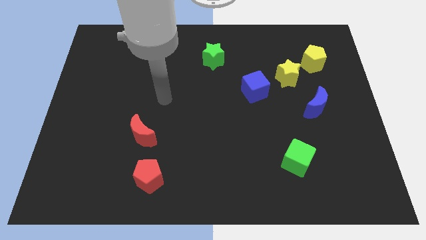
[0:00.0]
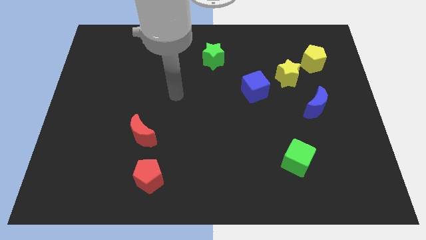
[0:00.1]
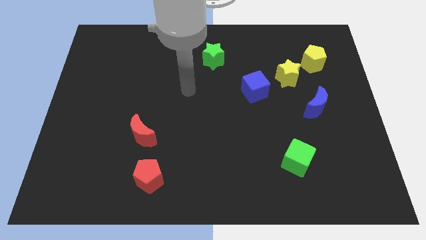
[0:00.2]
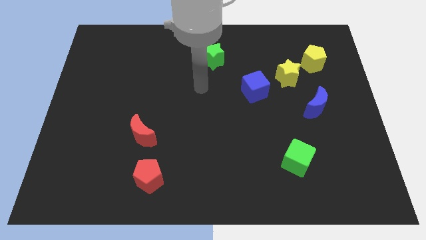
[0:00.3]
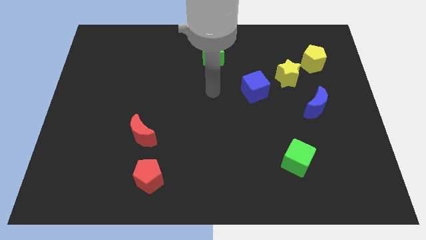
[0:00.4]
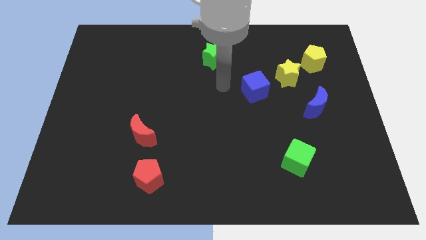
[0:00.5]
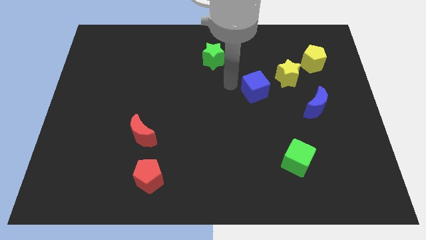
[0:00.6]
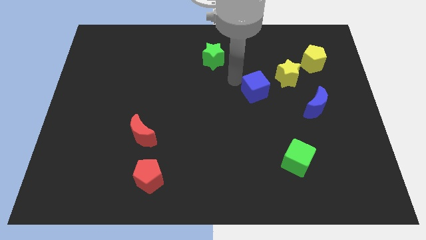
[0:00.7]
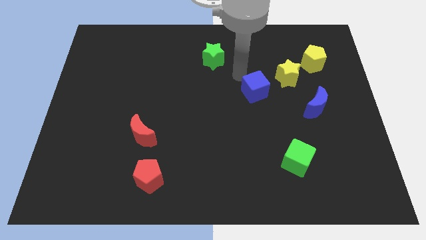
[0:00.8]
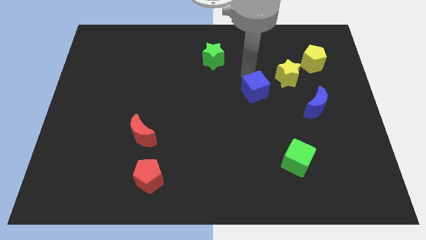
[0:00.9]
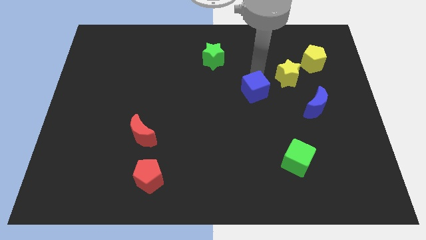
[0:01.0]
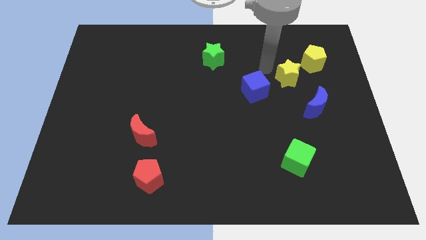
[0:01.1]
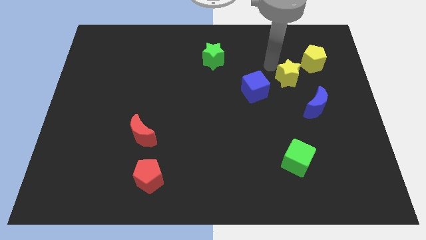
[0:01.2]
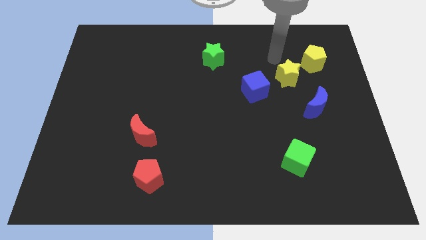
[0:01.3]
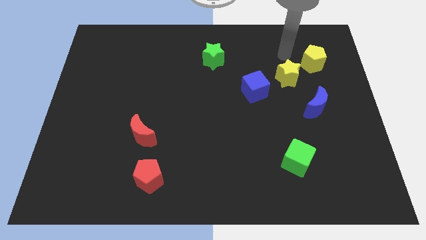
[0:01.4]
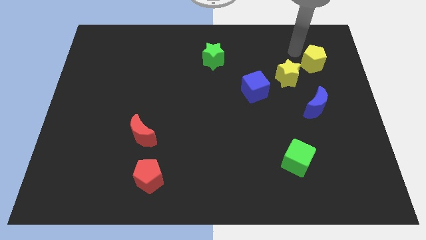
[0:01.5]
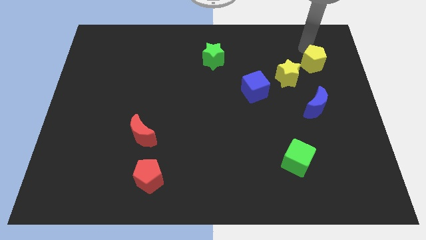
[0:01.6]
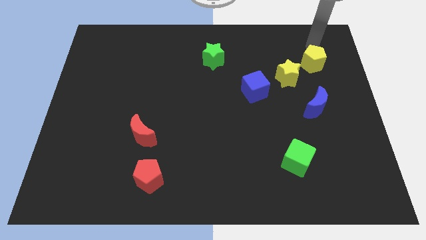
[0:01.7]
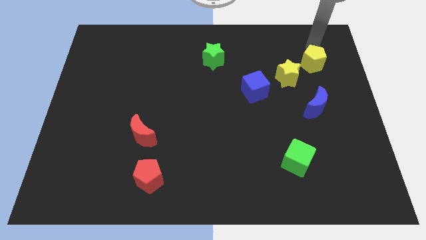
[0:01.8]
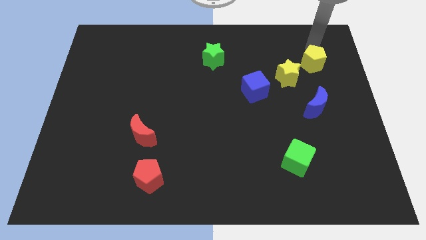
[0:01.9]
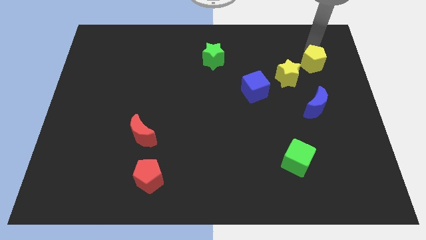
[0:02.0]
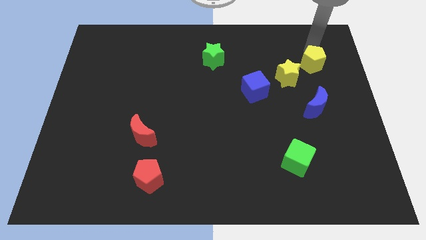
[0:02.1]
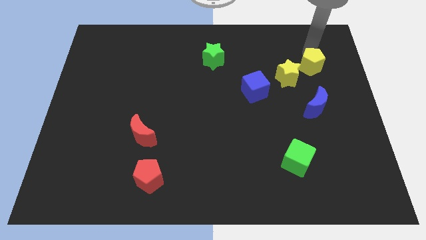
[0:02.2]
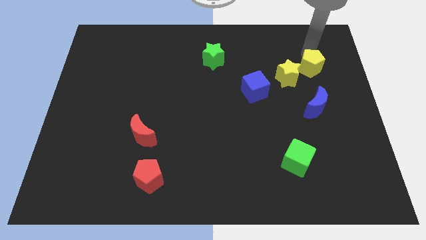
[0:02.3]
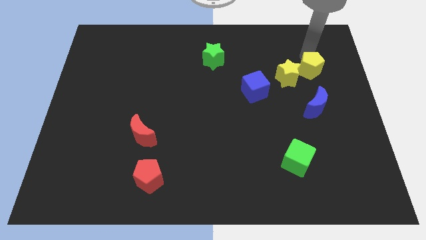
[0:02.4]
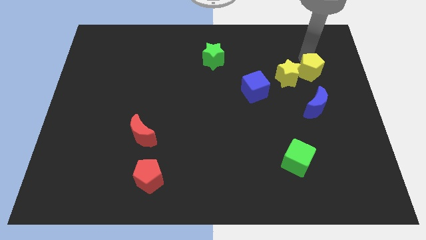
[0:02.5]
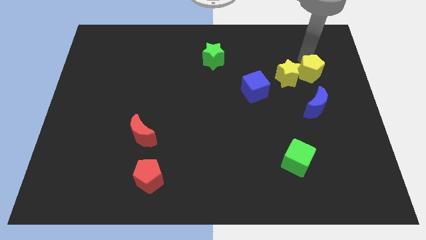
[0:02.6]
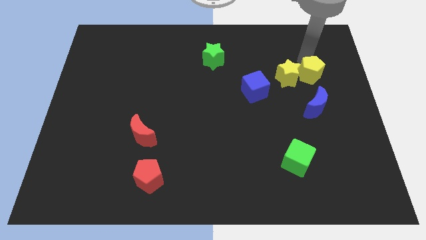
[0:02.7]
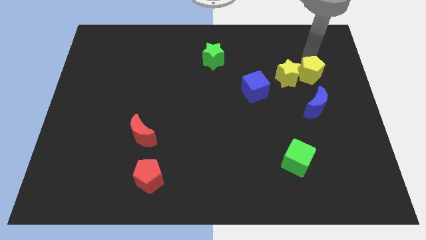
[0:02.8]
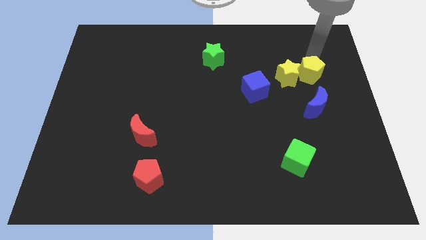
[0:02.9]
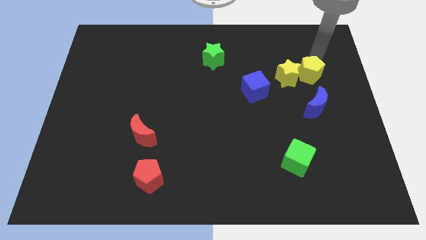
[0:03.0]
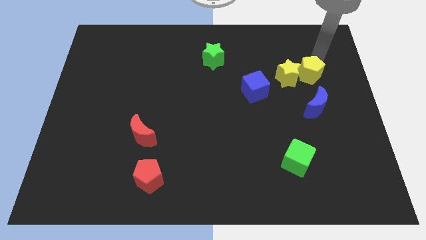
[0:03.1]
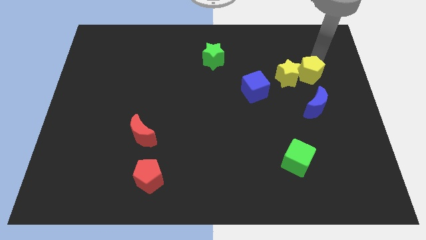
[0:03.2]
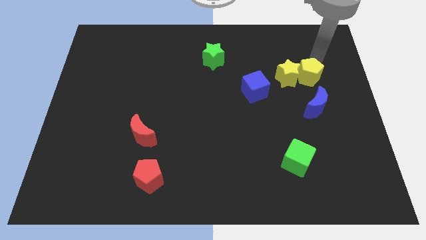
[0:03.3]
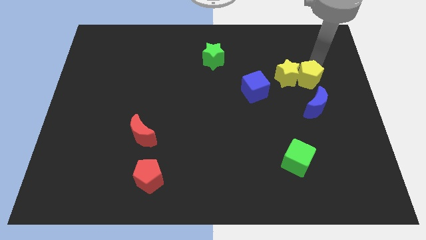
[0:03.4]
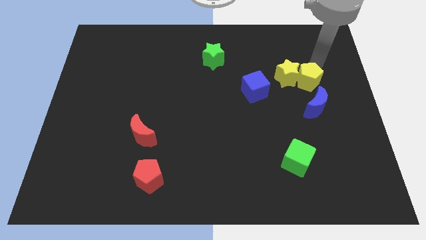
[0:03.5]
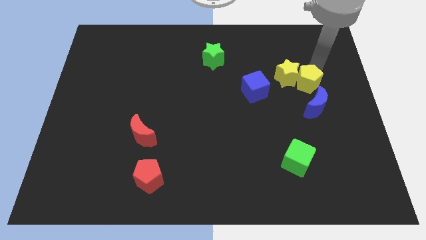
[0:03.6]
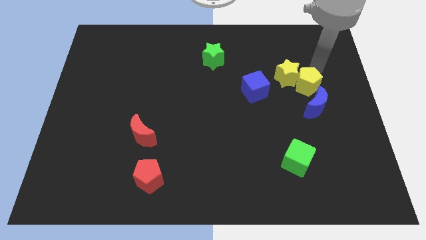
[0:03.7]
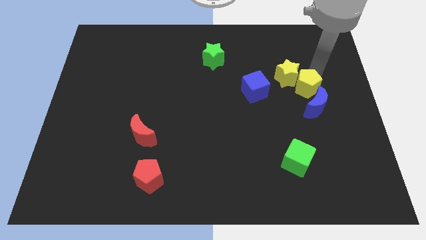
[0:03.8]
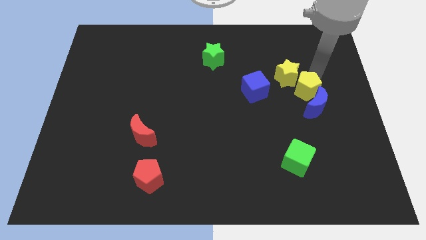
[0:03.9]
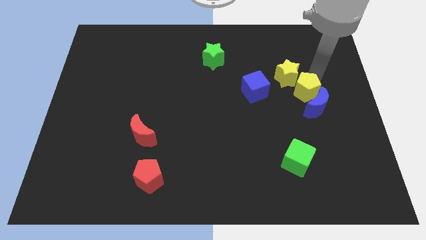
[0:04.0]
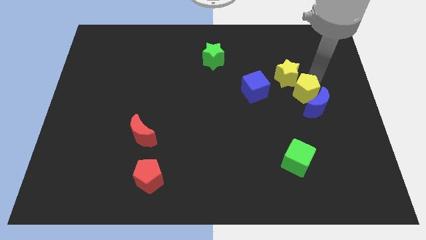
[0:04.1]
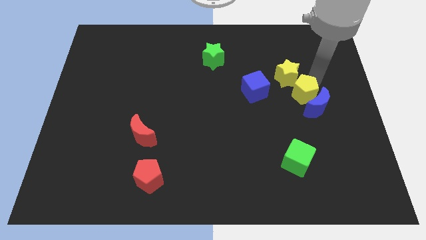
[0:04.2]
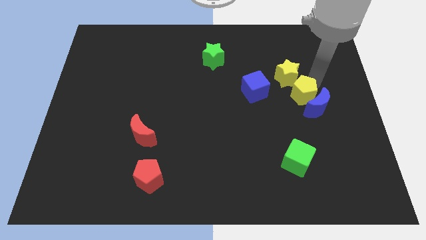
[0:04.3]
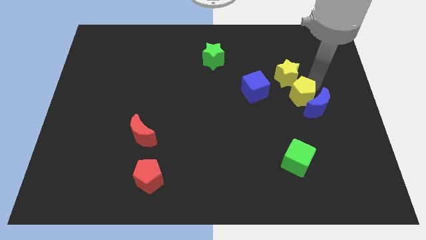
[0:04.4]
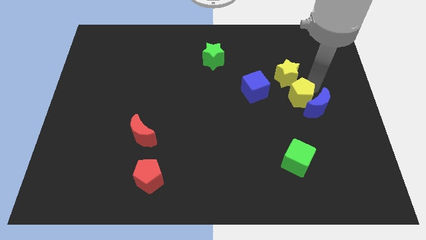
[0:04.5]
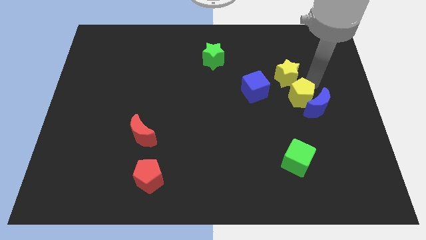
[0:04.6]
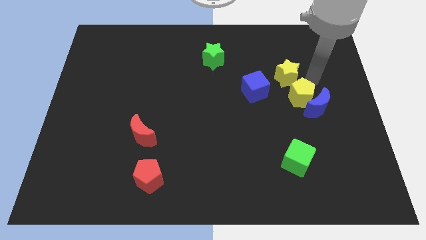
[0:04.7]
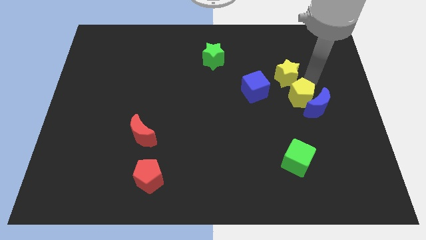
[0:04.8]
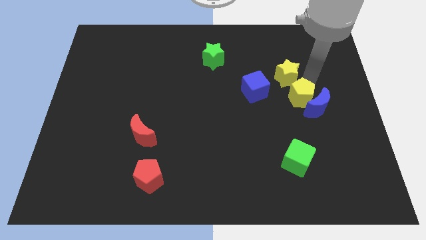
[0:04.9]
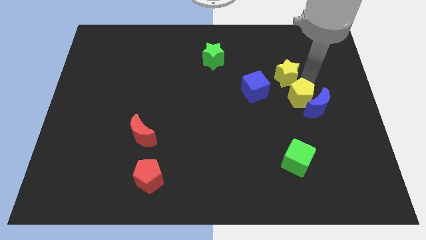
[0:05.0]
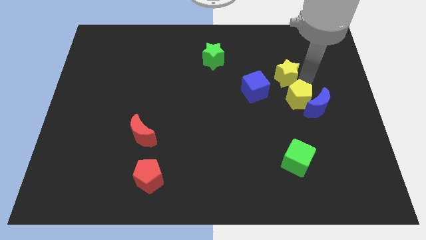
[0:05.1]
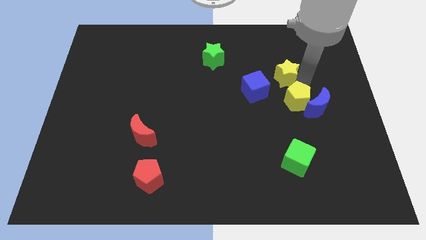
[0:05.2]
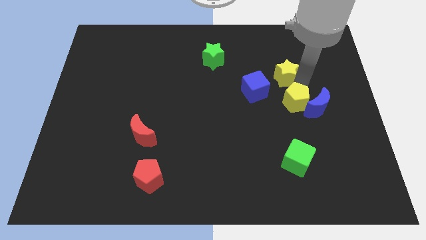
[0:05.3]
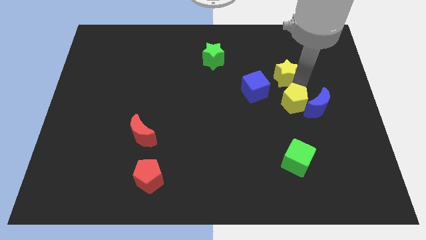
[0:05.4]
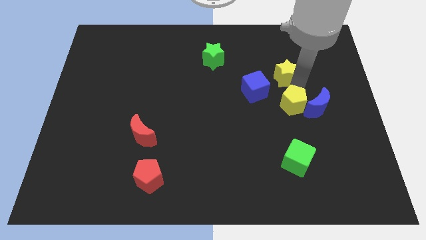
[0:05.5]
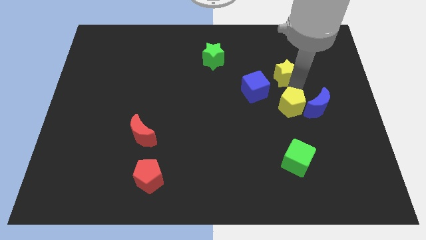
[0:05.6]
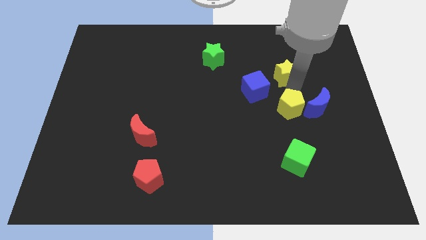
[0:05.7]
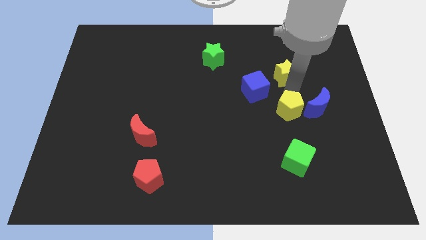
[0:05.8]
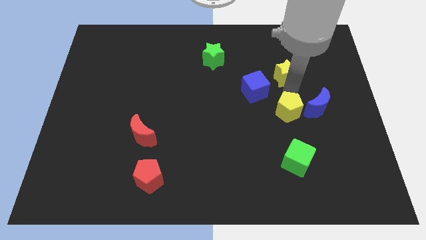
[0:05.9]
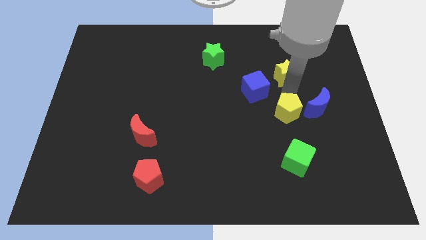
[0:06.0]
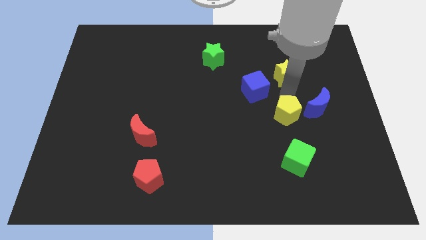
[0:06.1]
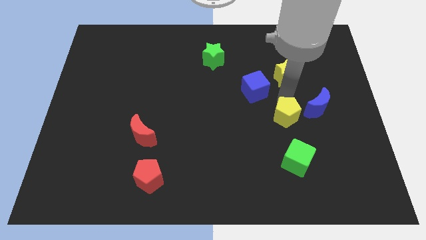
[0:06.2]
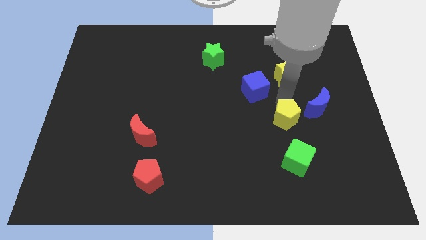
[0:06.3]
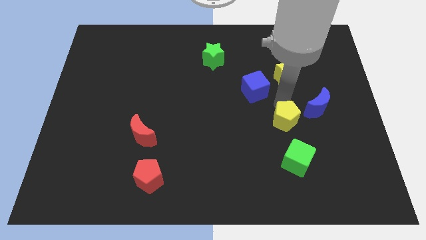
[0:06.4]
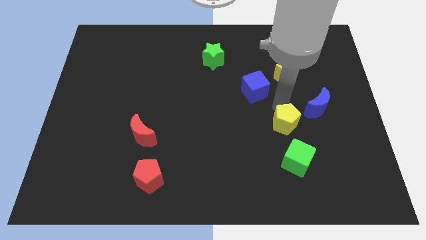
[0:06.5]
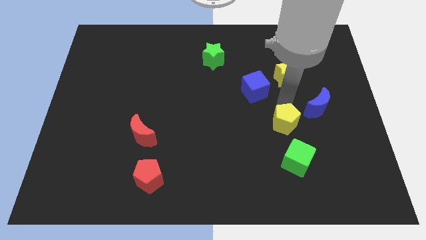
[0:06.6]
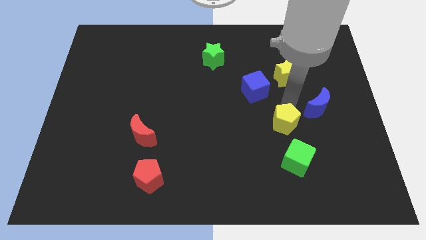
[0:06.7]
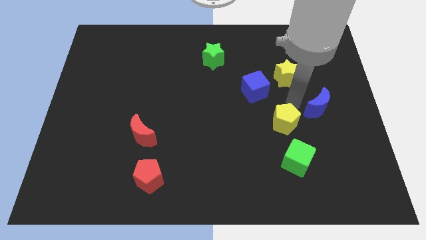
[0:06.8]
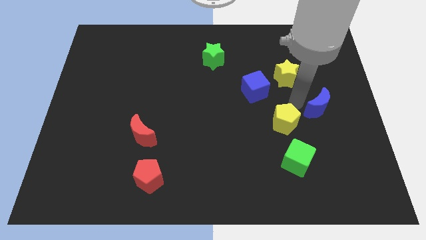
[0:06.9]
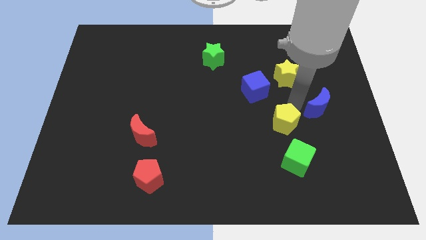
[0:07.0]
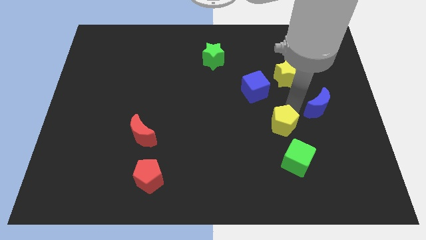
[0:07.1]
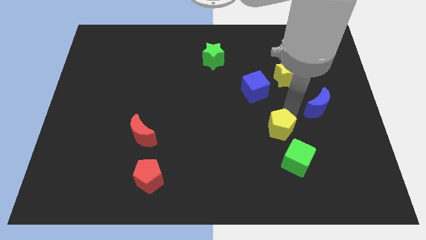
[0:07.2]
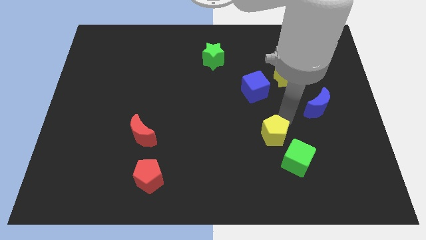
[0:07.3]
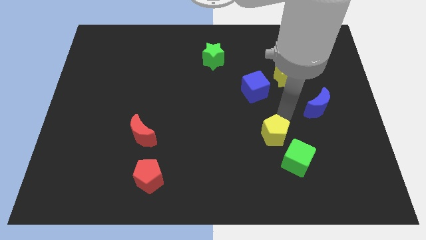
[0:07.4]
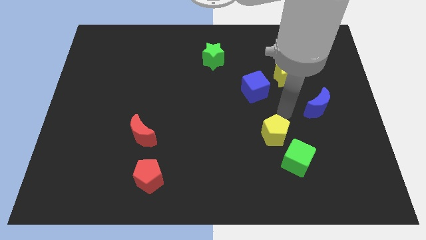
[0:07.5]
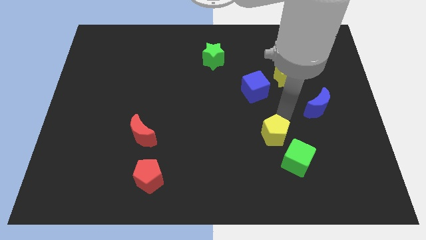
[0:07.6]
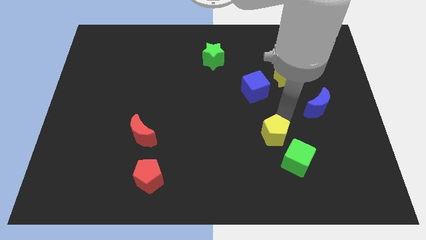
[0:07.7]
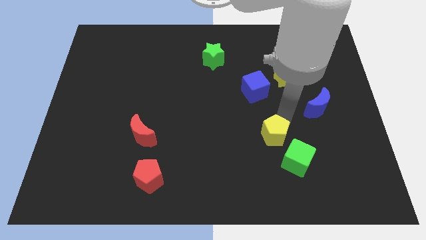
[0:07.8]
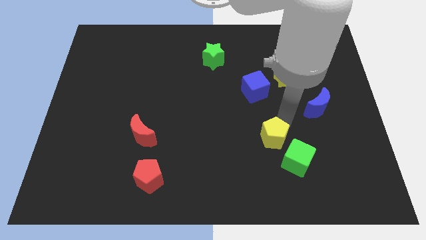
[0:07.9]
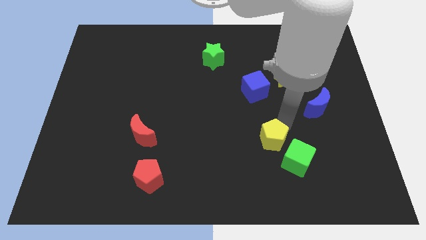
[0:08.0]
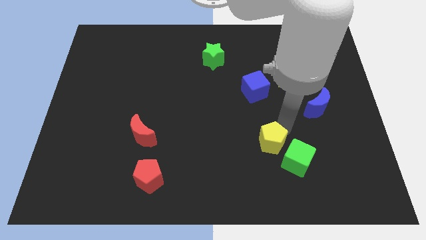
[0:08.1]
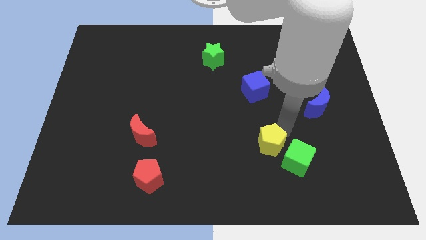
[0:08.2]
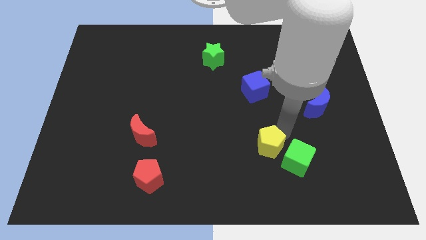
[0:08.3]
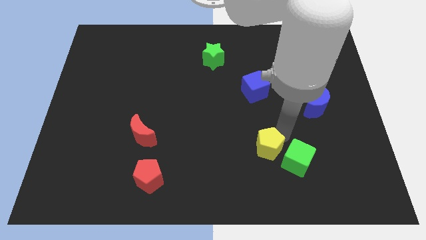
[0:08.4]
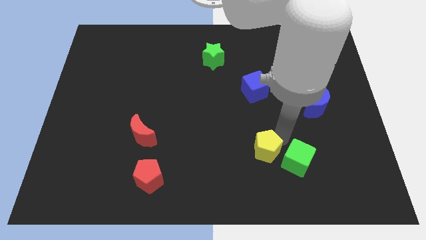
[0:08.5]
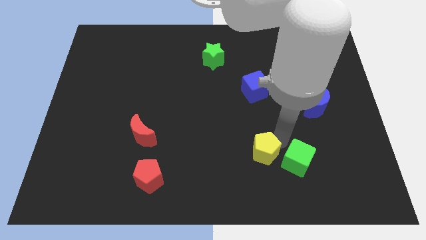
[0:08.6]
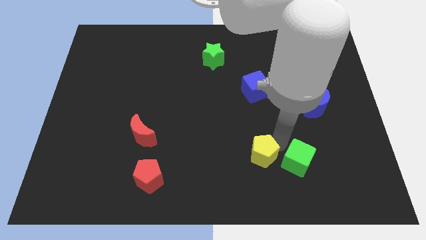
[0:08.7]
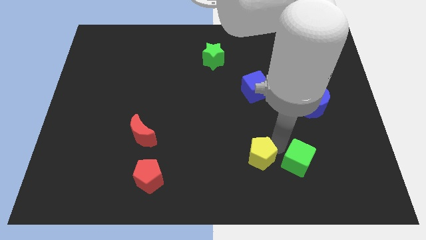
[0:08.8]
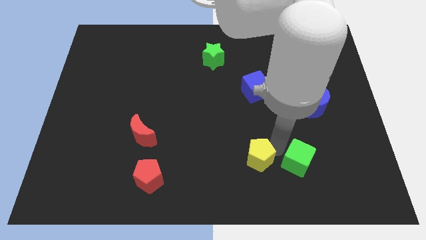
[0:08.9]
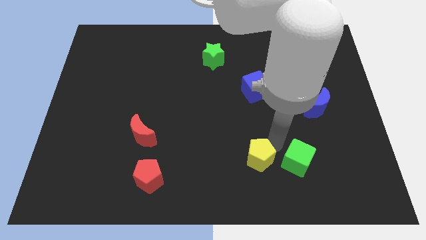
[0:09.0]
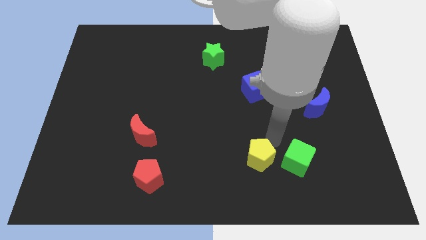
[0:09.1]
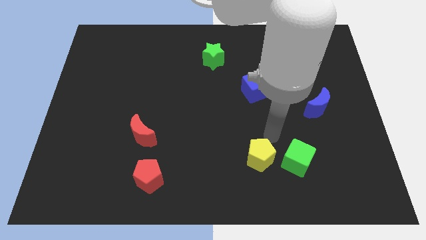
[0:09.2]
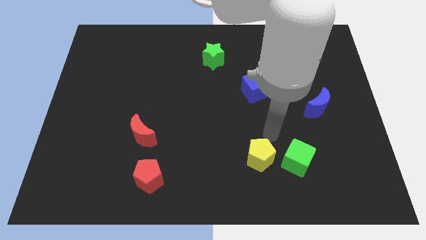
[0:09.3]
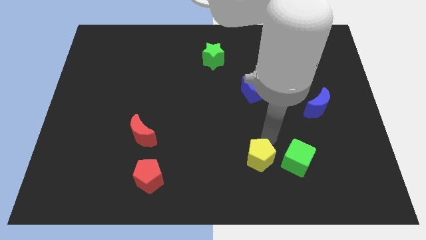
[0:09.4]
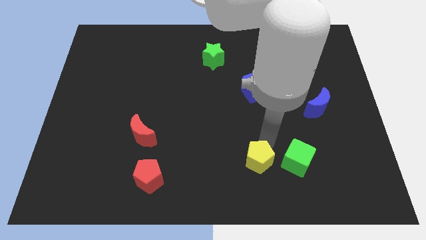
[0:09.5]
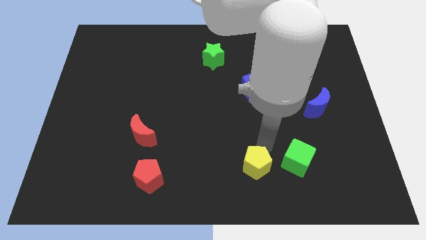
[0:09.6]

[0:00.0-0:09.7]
move the yellow pentagon to the bottom side
